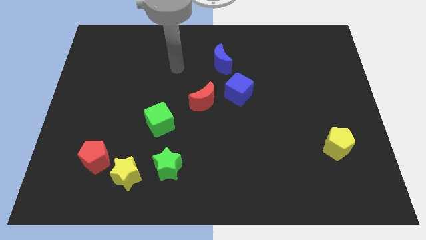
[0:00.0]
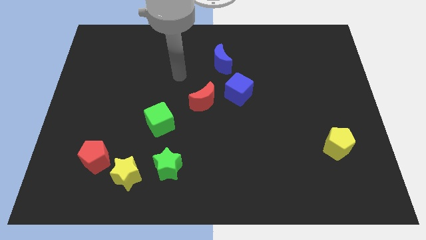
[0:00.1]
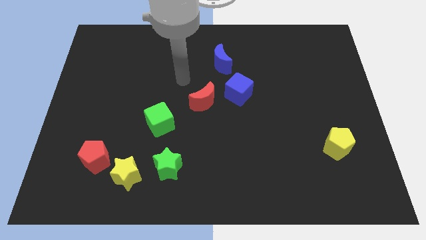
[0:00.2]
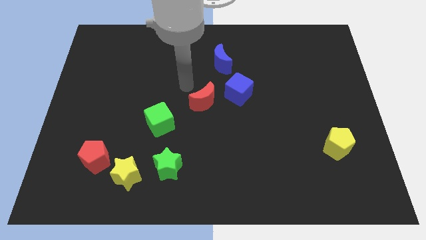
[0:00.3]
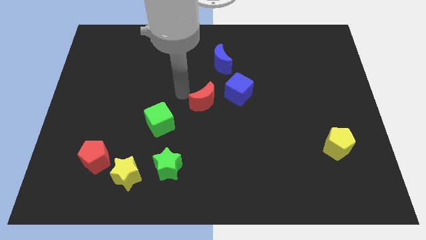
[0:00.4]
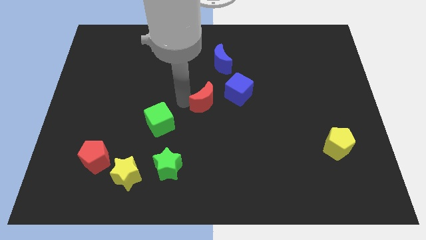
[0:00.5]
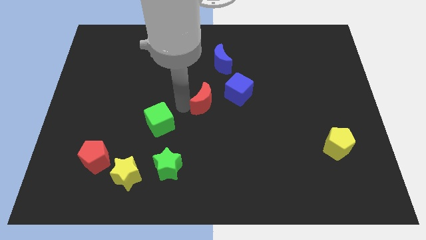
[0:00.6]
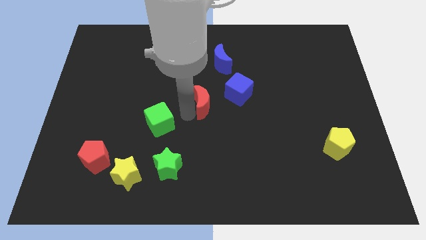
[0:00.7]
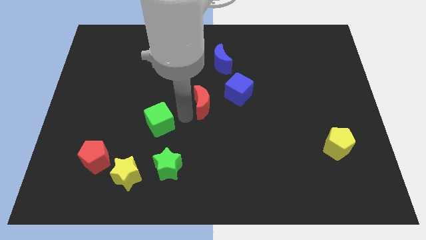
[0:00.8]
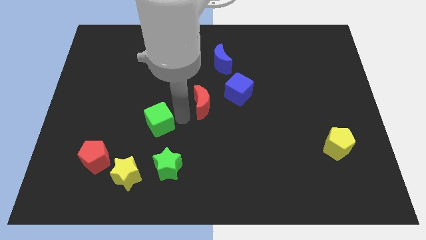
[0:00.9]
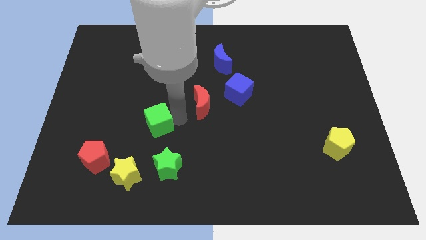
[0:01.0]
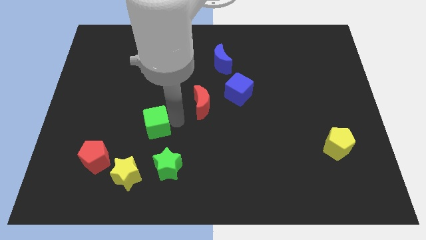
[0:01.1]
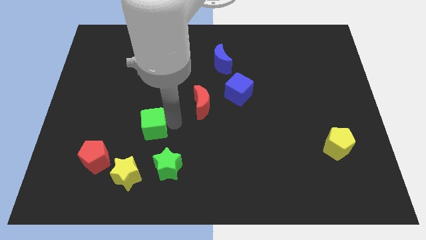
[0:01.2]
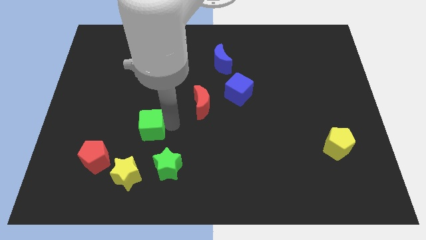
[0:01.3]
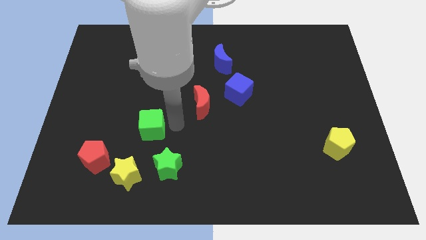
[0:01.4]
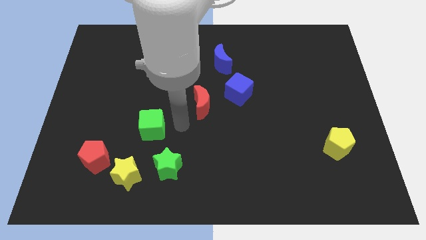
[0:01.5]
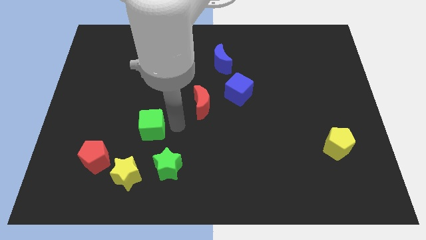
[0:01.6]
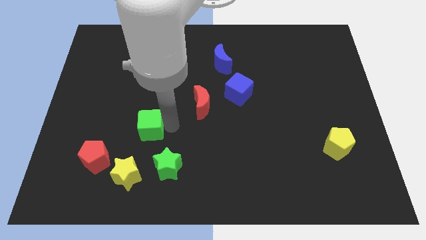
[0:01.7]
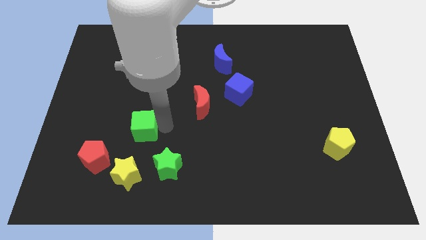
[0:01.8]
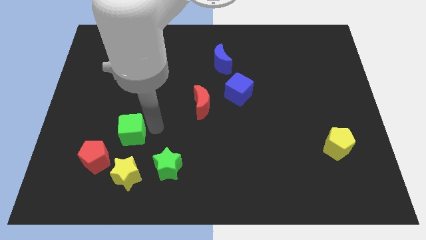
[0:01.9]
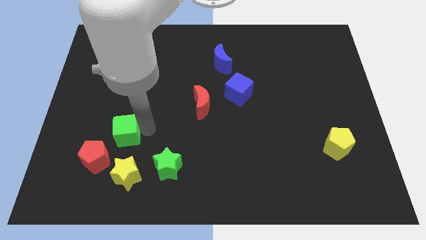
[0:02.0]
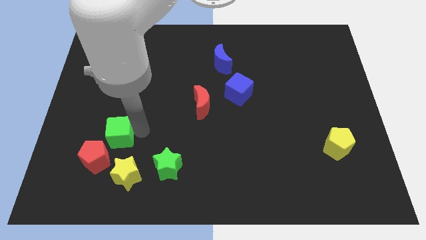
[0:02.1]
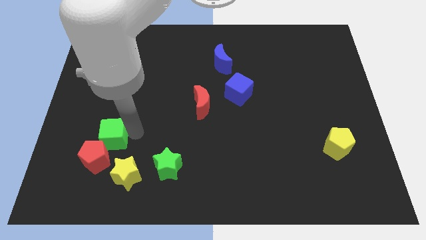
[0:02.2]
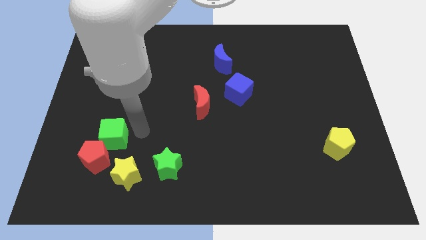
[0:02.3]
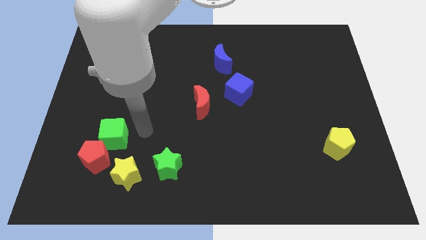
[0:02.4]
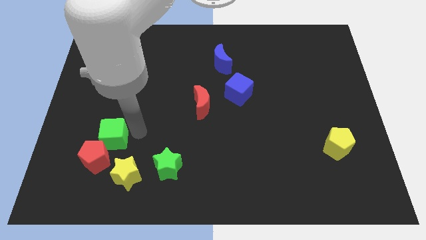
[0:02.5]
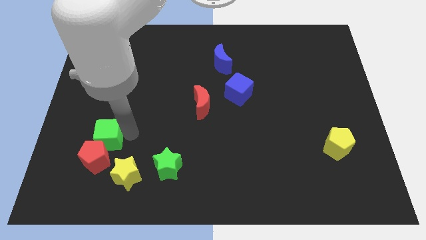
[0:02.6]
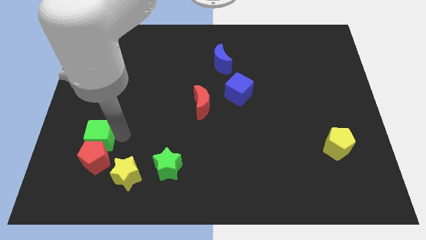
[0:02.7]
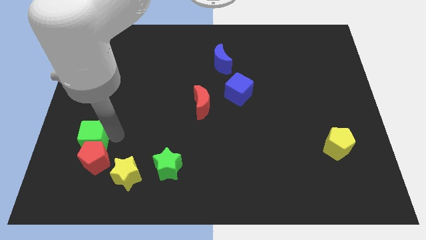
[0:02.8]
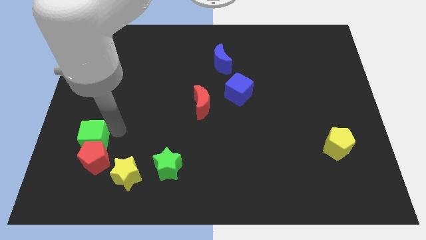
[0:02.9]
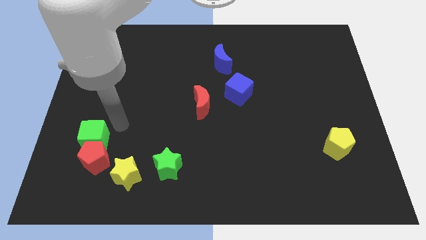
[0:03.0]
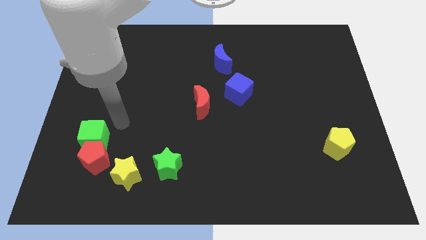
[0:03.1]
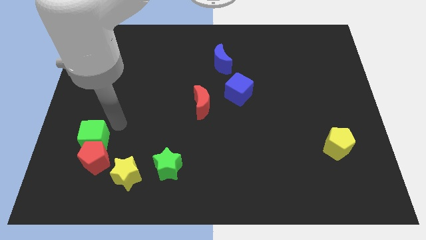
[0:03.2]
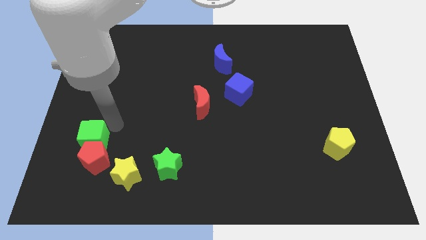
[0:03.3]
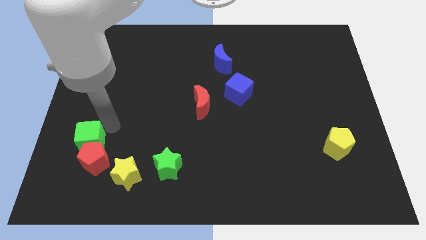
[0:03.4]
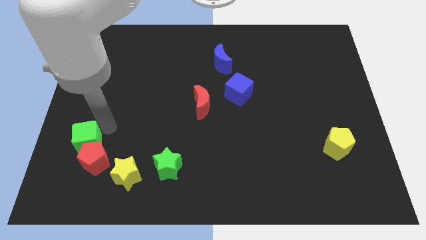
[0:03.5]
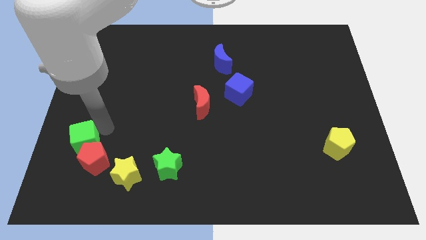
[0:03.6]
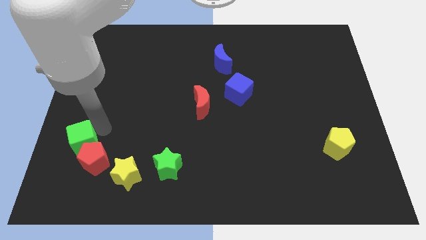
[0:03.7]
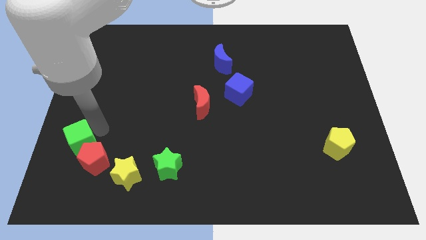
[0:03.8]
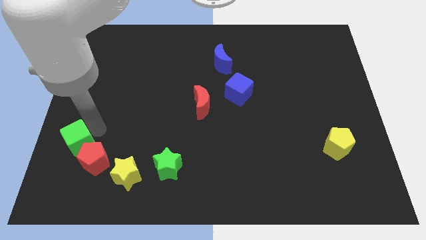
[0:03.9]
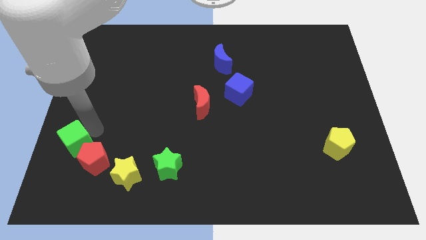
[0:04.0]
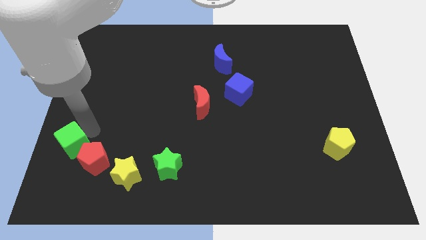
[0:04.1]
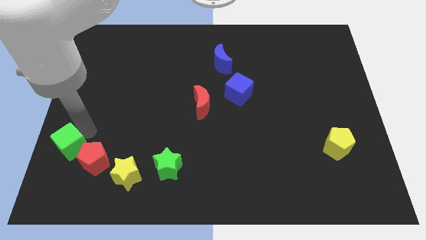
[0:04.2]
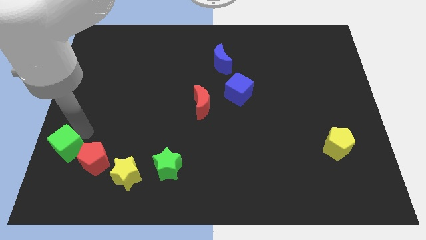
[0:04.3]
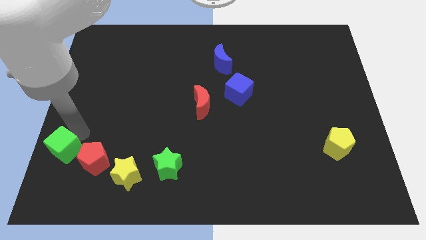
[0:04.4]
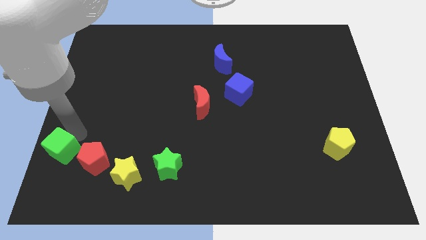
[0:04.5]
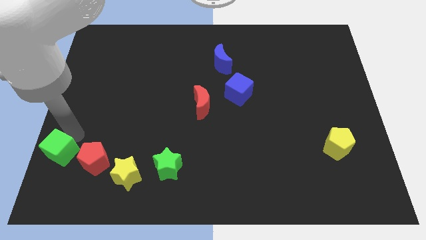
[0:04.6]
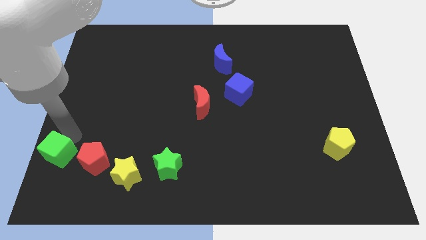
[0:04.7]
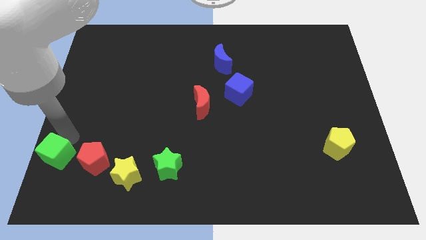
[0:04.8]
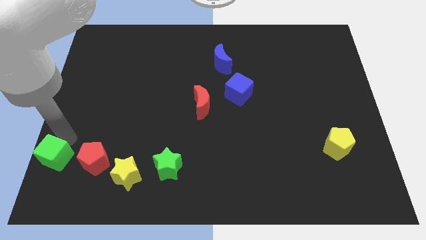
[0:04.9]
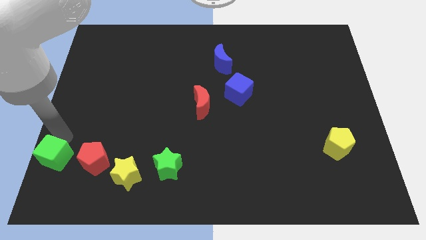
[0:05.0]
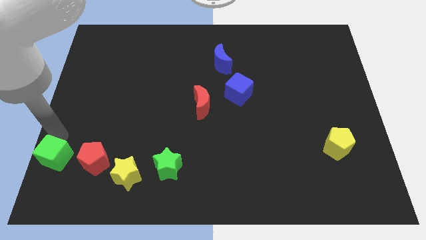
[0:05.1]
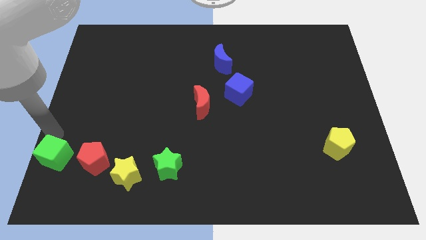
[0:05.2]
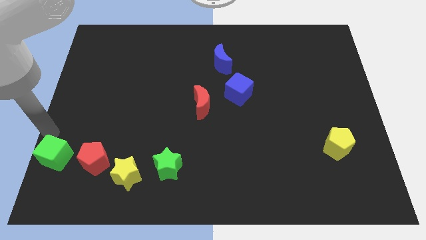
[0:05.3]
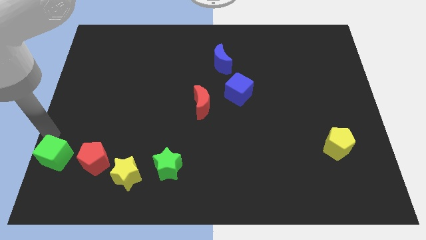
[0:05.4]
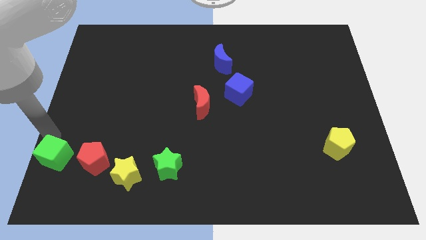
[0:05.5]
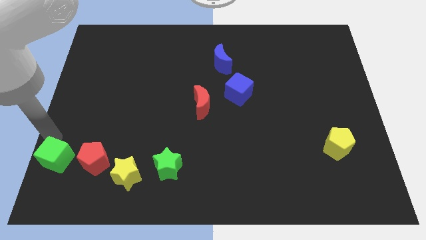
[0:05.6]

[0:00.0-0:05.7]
slide the green cube to the bottom left corner

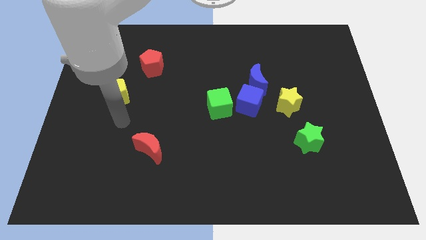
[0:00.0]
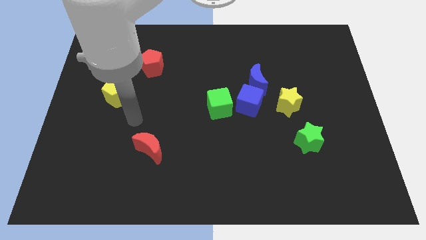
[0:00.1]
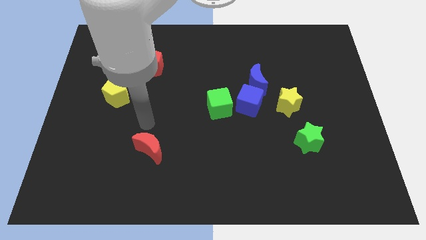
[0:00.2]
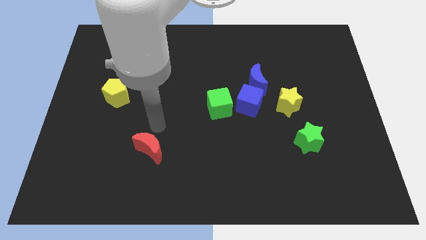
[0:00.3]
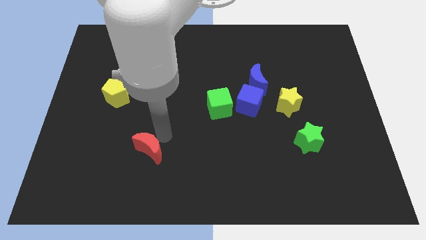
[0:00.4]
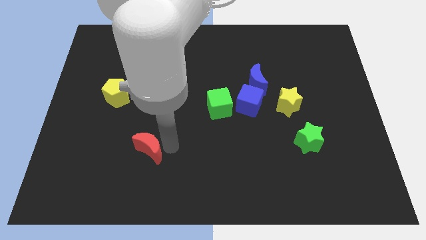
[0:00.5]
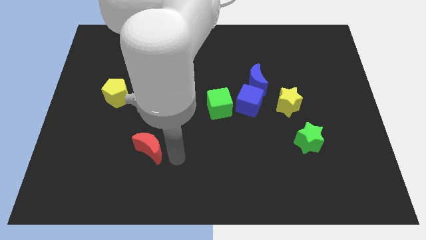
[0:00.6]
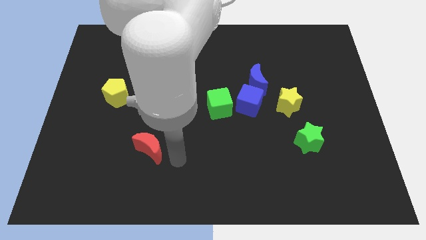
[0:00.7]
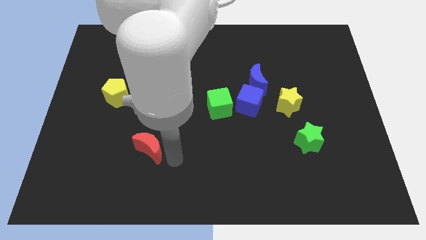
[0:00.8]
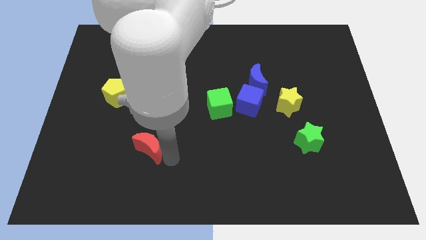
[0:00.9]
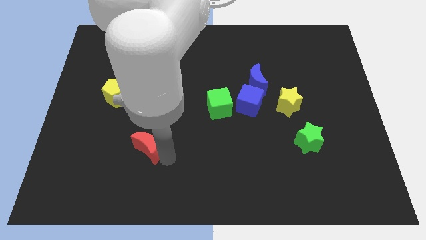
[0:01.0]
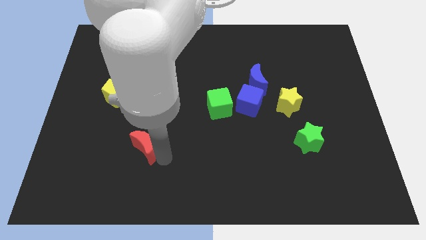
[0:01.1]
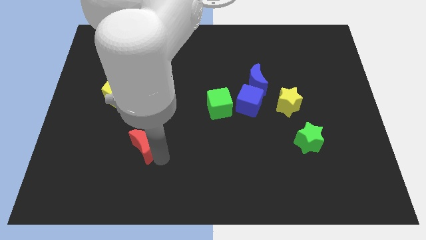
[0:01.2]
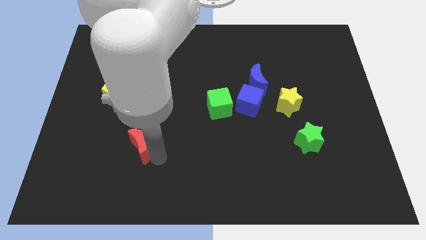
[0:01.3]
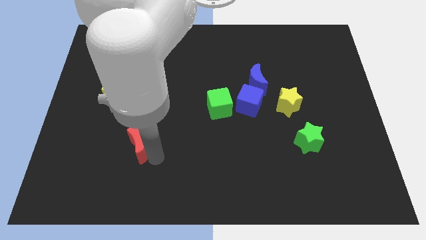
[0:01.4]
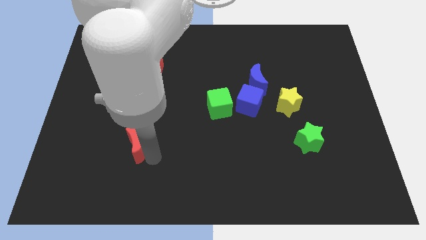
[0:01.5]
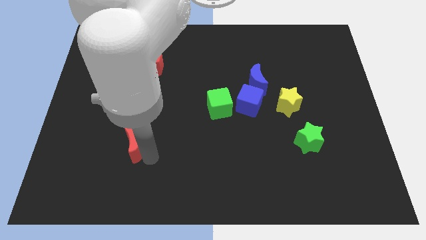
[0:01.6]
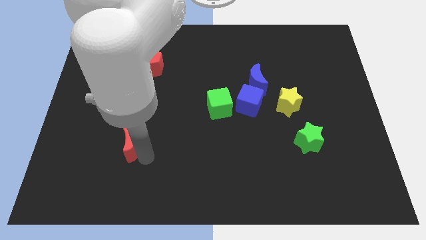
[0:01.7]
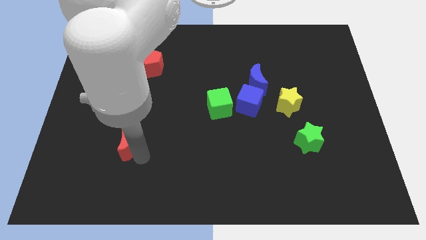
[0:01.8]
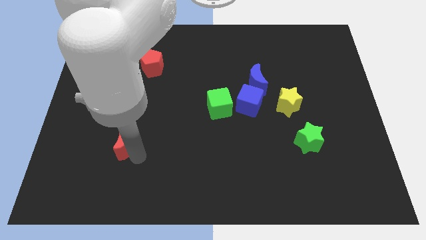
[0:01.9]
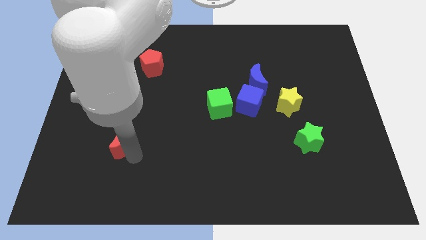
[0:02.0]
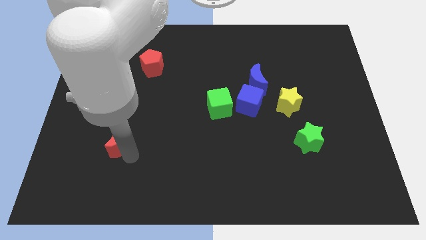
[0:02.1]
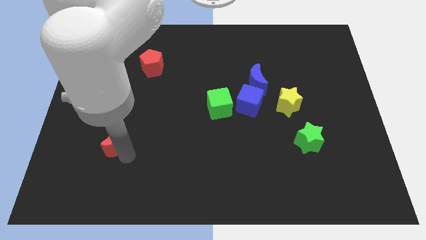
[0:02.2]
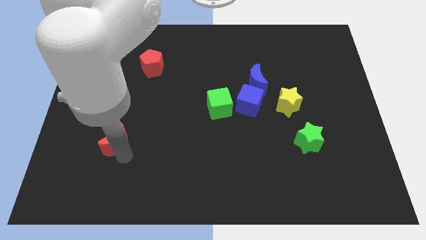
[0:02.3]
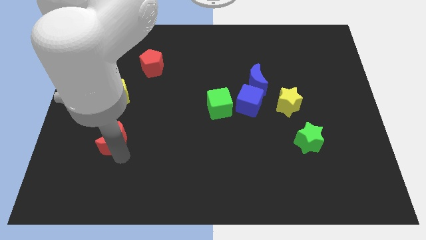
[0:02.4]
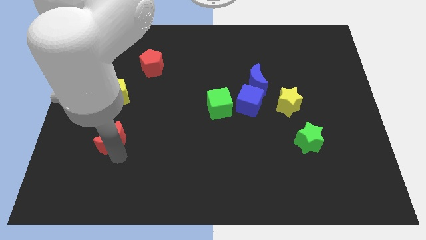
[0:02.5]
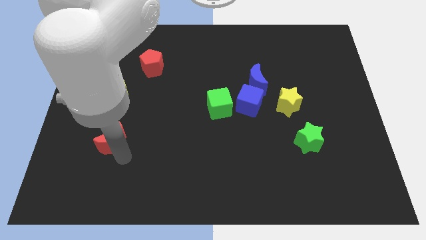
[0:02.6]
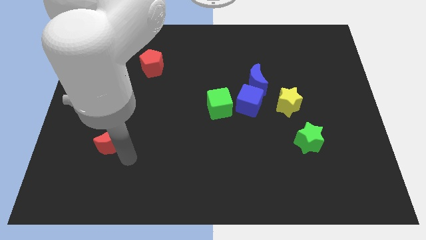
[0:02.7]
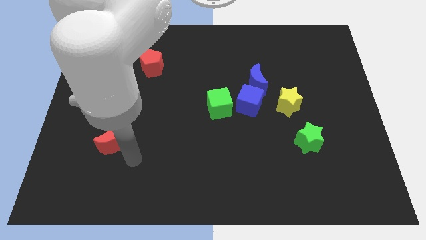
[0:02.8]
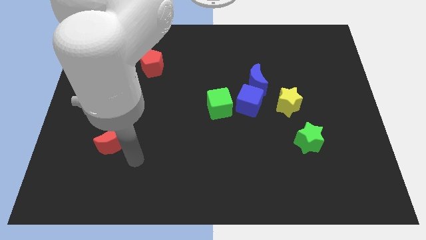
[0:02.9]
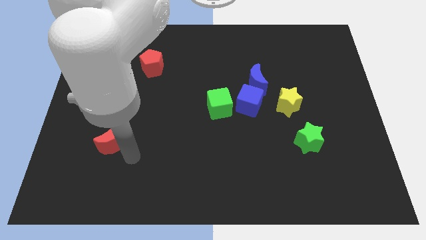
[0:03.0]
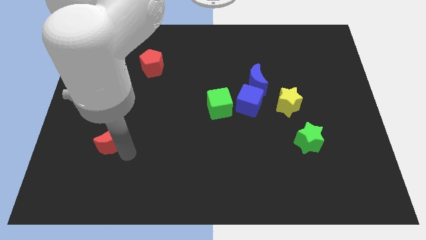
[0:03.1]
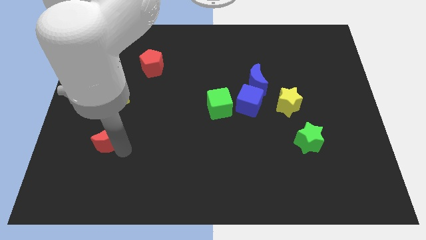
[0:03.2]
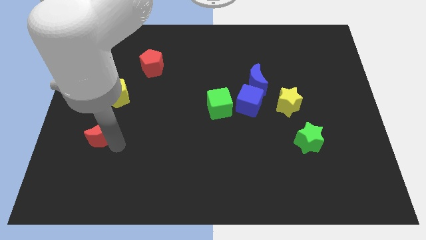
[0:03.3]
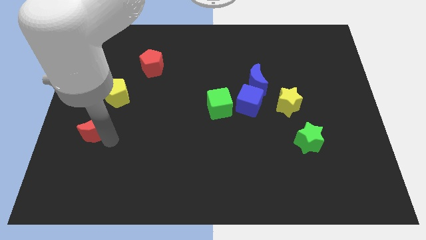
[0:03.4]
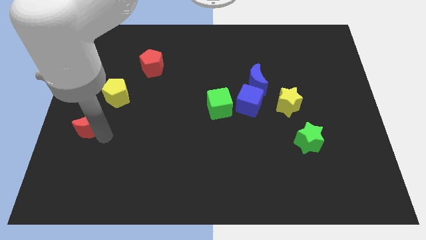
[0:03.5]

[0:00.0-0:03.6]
slide the red moon to the left side
